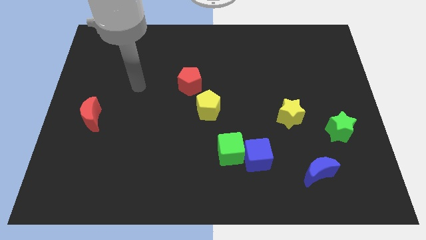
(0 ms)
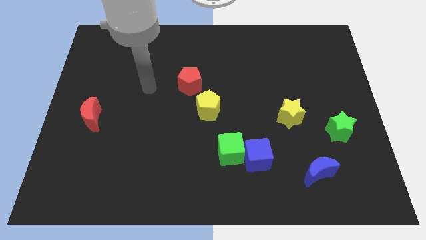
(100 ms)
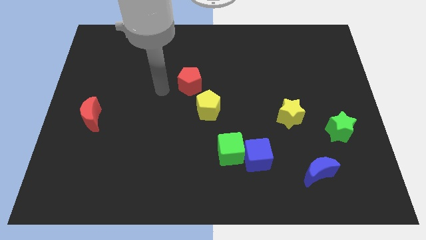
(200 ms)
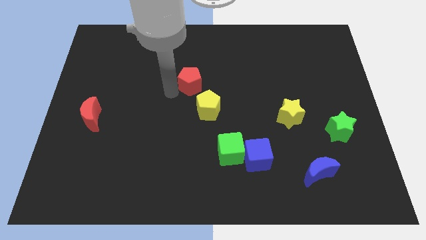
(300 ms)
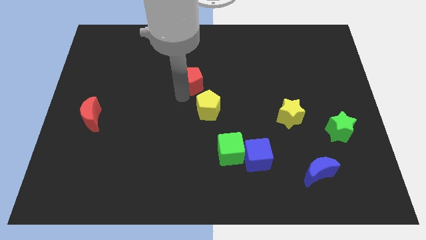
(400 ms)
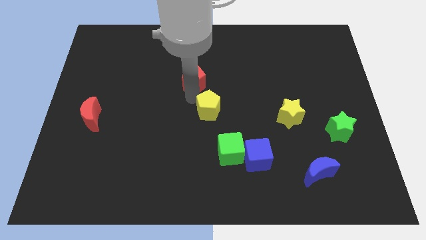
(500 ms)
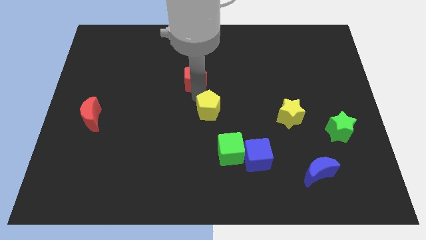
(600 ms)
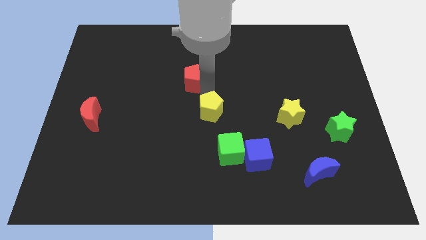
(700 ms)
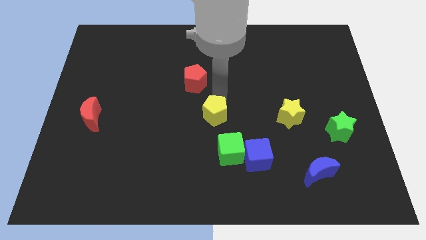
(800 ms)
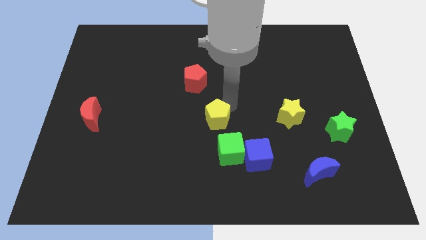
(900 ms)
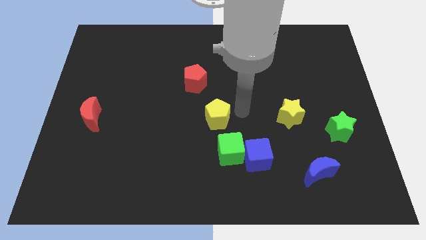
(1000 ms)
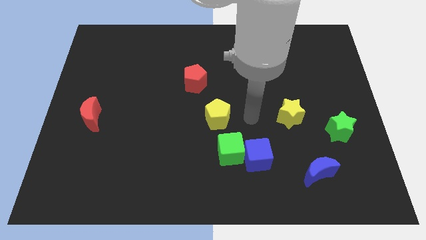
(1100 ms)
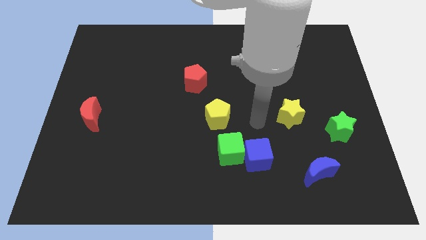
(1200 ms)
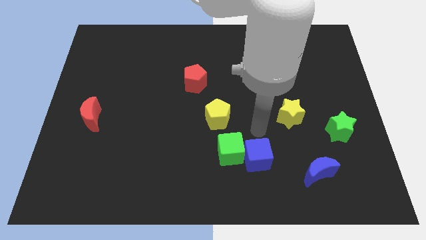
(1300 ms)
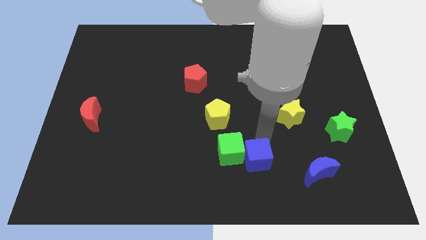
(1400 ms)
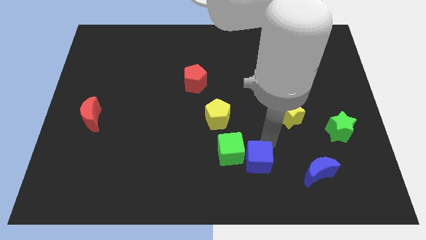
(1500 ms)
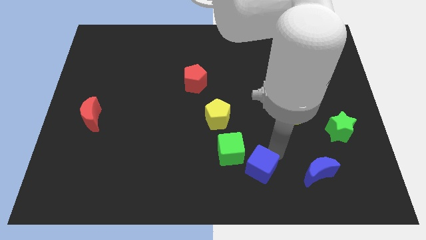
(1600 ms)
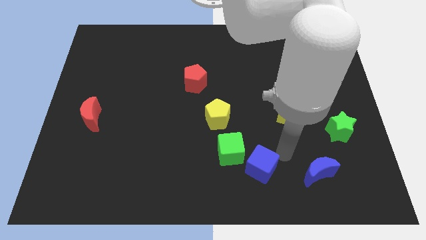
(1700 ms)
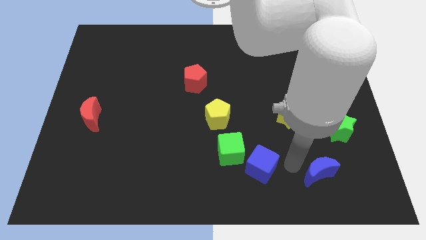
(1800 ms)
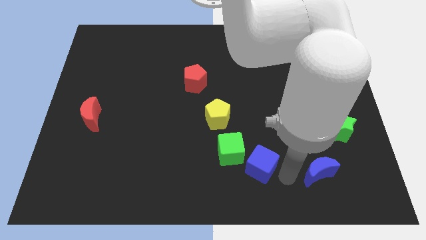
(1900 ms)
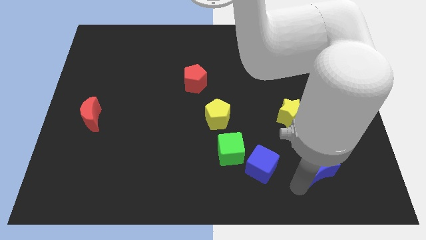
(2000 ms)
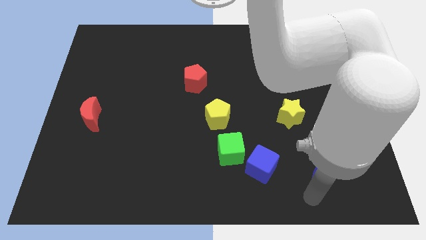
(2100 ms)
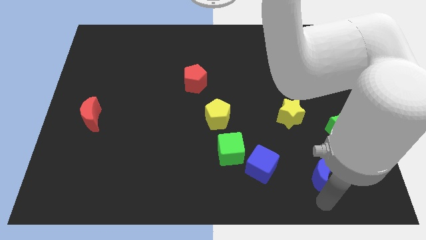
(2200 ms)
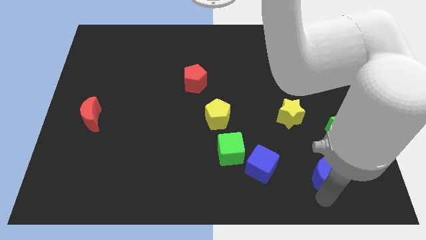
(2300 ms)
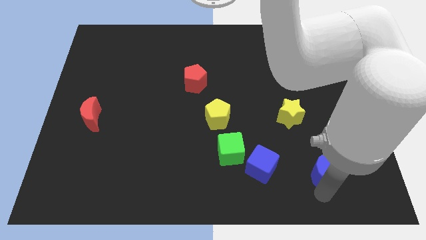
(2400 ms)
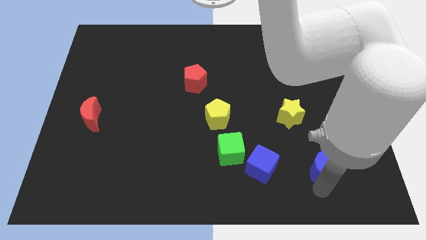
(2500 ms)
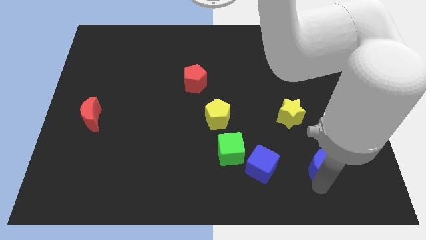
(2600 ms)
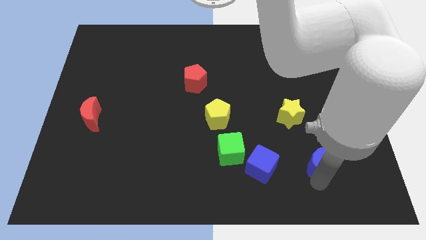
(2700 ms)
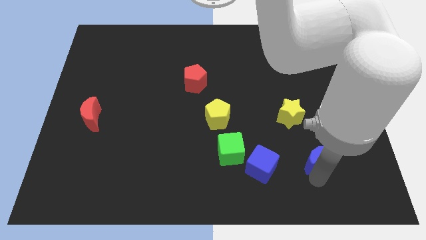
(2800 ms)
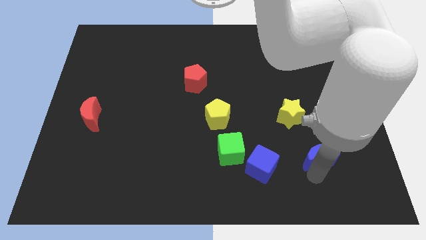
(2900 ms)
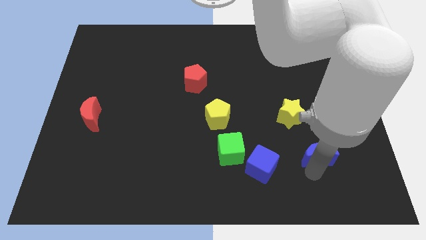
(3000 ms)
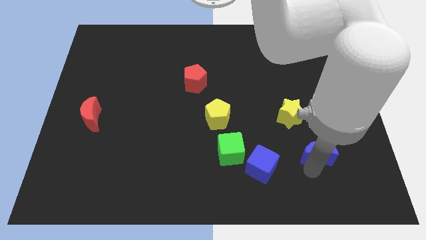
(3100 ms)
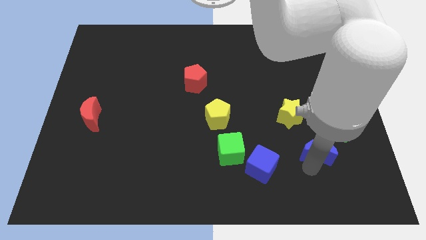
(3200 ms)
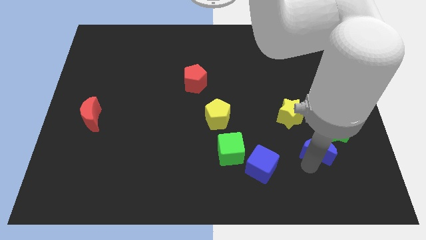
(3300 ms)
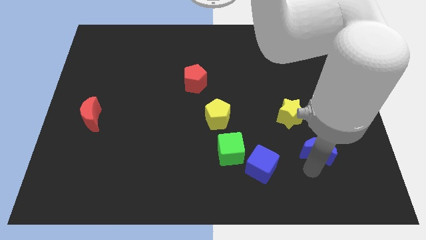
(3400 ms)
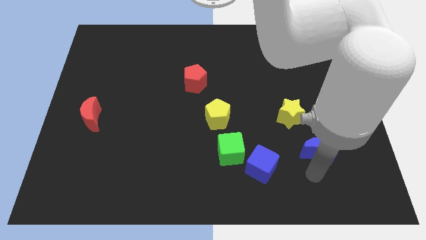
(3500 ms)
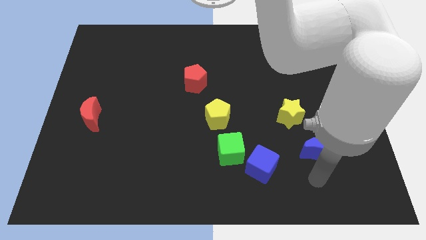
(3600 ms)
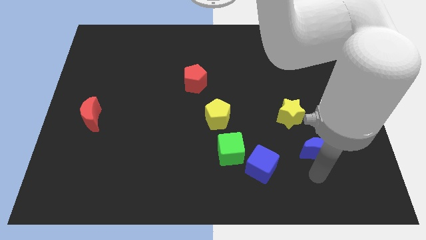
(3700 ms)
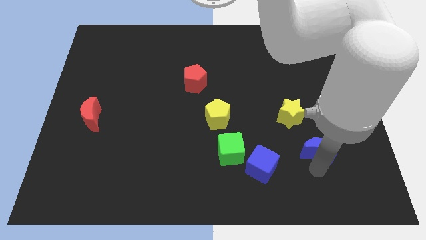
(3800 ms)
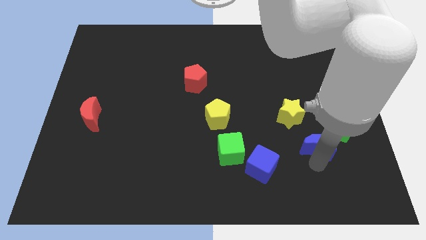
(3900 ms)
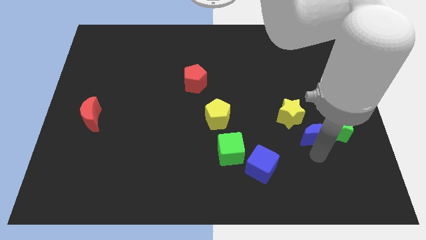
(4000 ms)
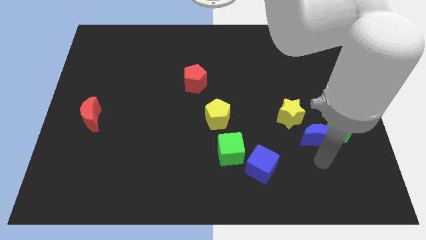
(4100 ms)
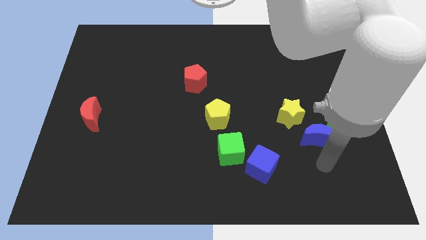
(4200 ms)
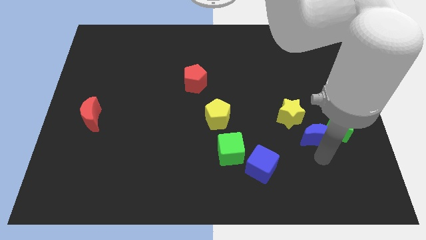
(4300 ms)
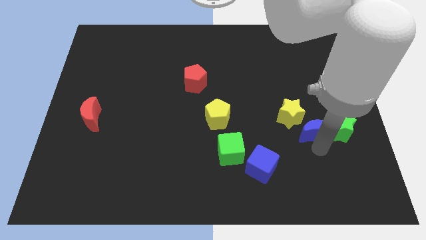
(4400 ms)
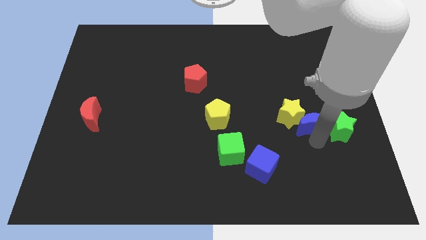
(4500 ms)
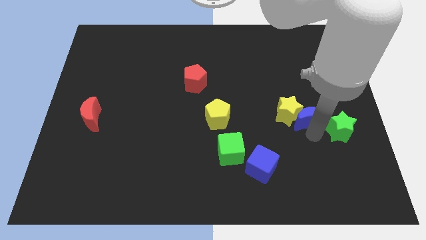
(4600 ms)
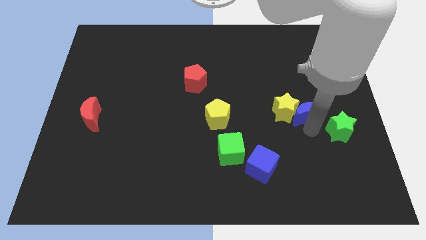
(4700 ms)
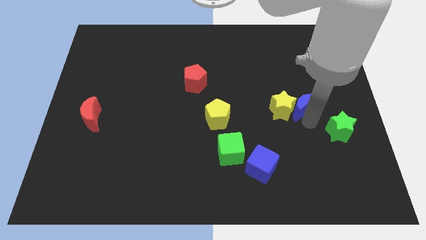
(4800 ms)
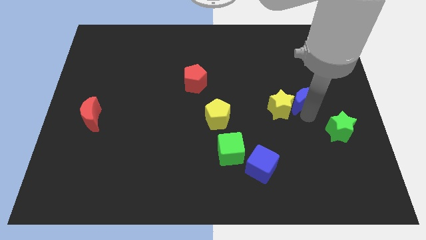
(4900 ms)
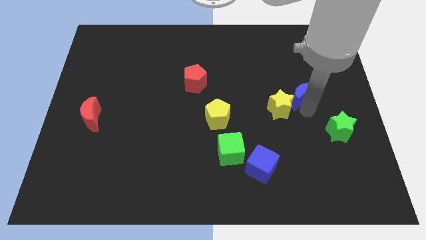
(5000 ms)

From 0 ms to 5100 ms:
slide the blue moon up

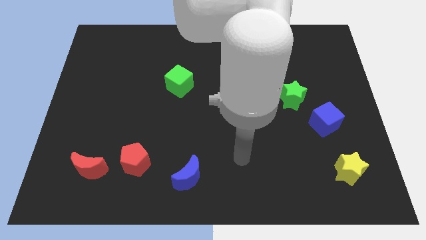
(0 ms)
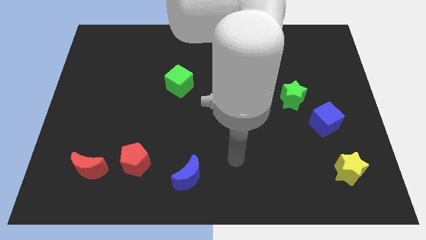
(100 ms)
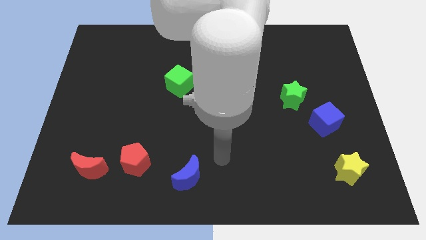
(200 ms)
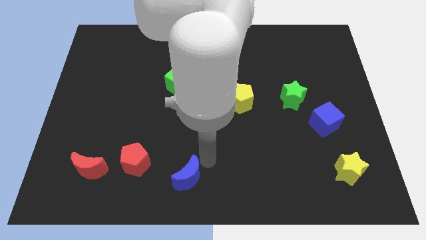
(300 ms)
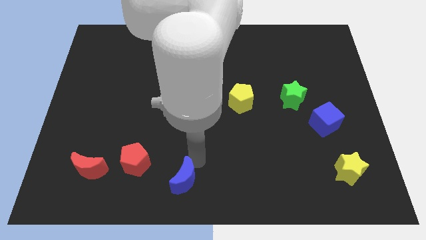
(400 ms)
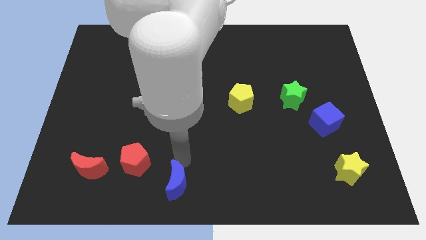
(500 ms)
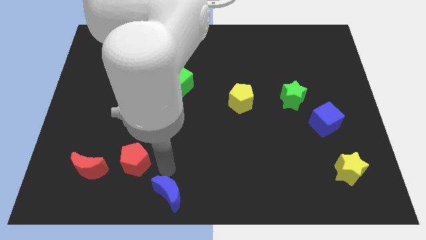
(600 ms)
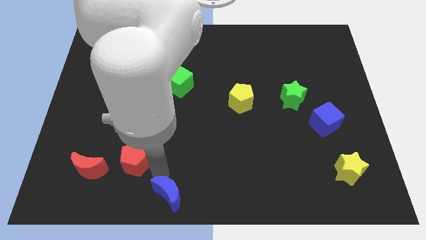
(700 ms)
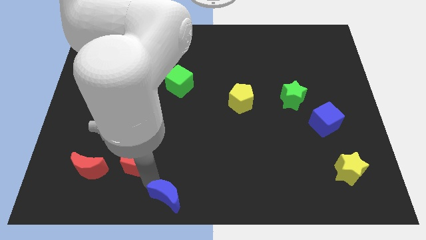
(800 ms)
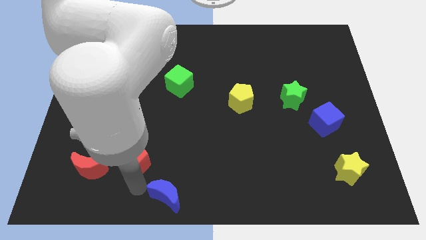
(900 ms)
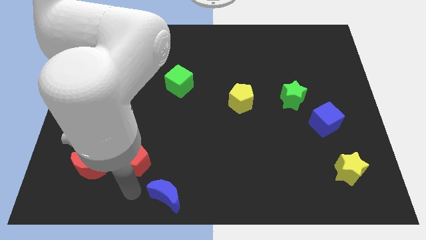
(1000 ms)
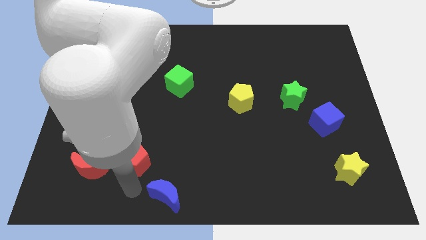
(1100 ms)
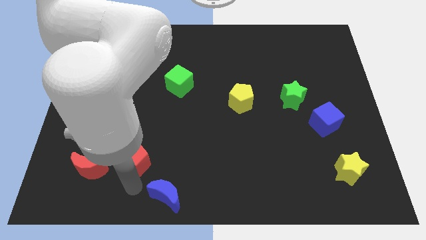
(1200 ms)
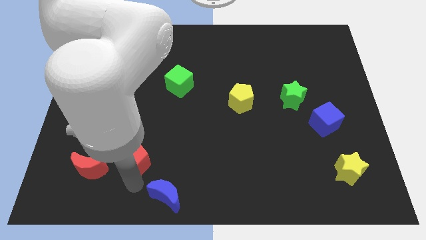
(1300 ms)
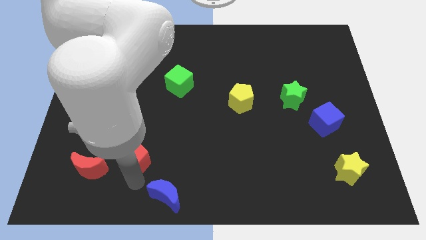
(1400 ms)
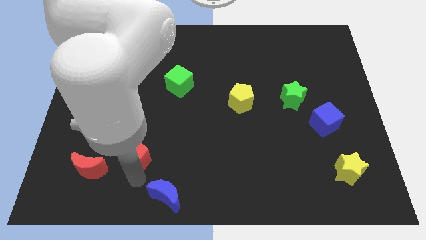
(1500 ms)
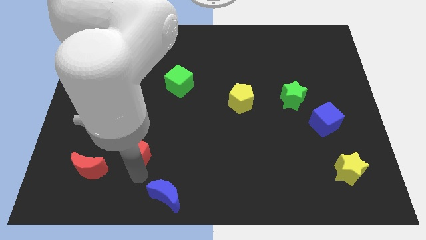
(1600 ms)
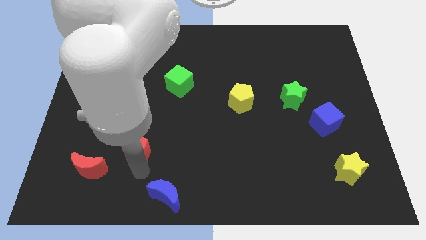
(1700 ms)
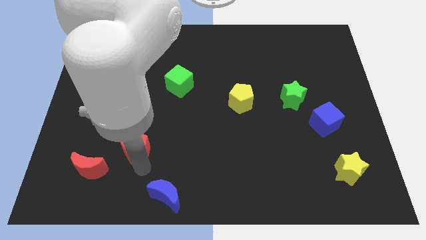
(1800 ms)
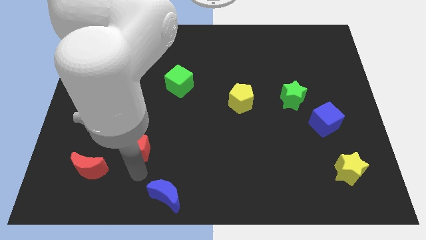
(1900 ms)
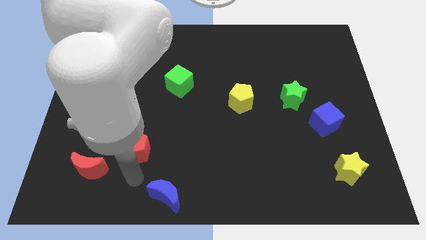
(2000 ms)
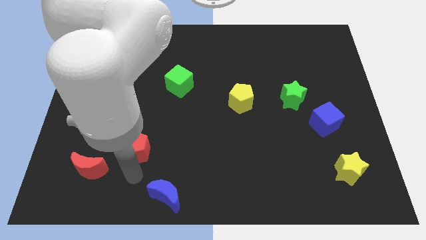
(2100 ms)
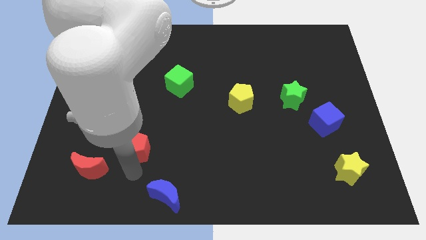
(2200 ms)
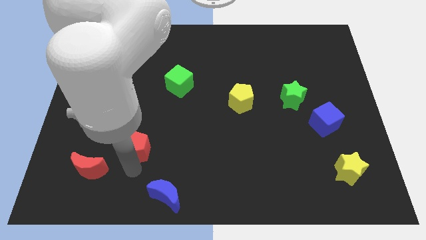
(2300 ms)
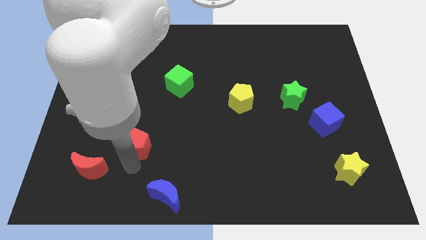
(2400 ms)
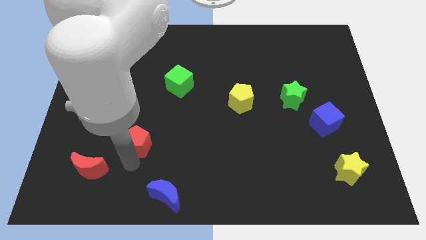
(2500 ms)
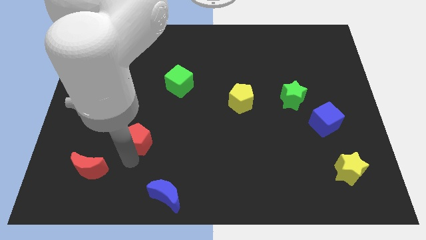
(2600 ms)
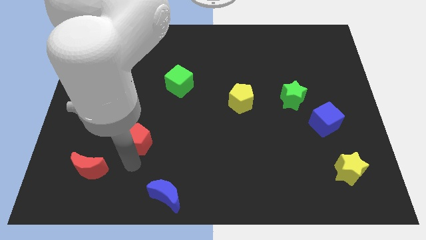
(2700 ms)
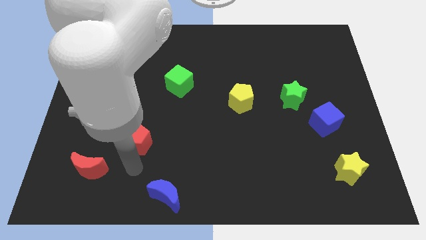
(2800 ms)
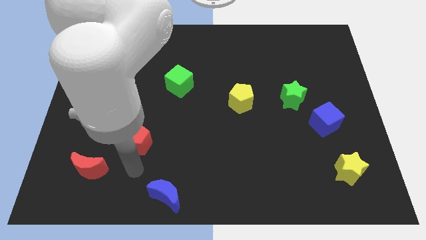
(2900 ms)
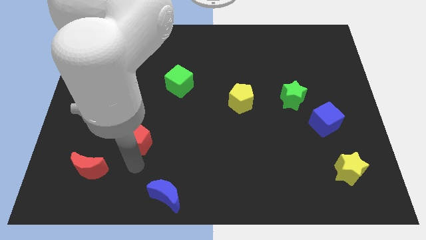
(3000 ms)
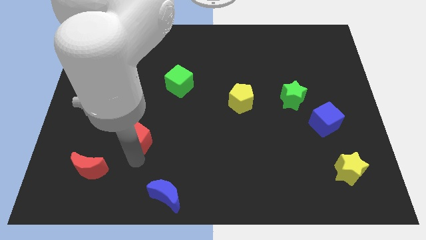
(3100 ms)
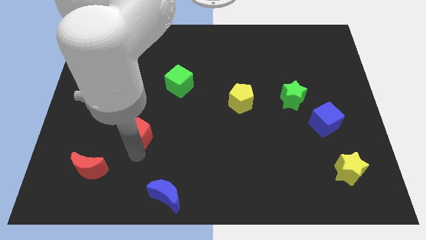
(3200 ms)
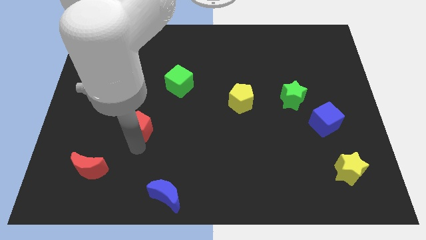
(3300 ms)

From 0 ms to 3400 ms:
push the red pentagon a little up
